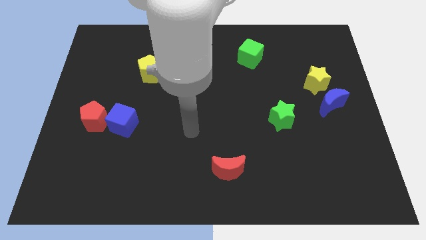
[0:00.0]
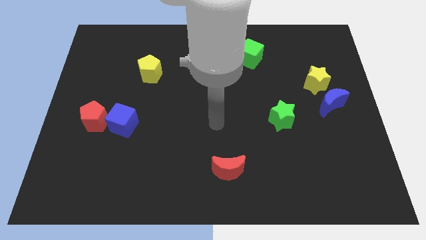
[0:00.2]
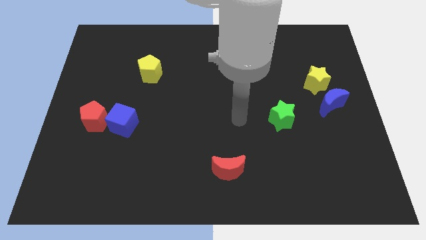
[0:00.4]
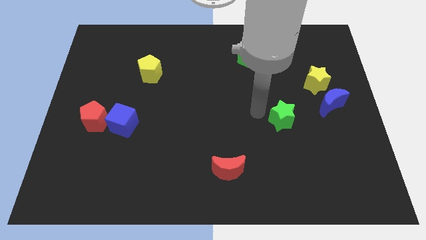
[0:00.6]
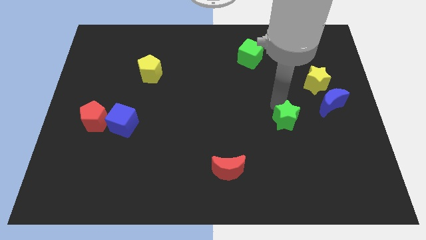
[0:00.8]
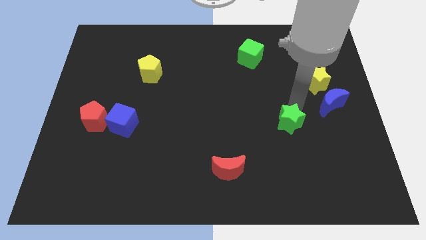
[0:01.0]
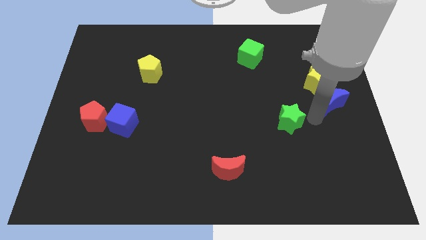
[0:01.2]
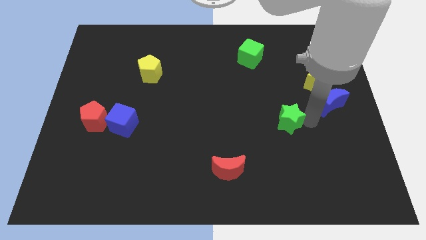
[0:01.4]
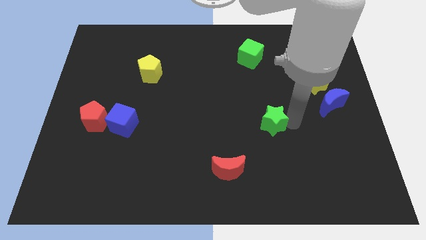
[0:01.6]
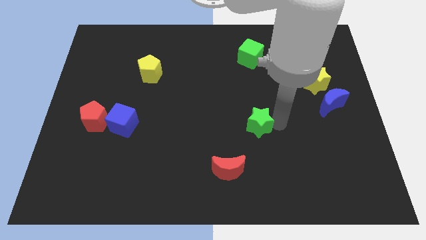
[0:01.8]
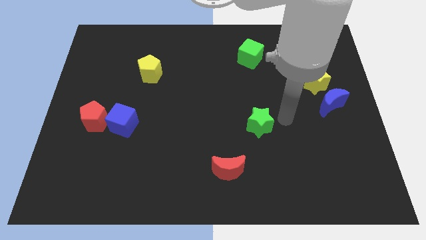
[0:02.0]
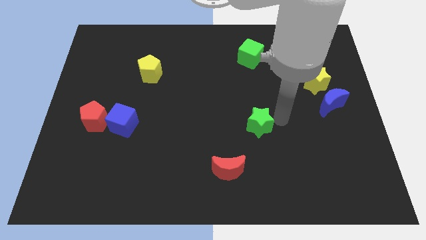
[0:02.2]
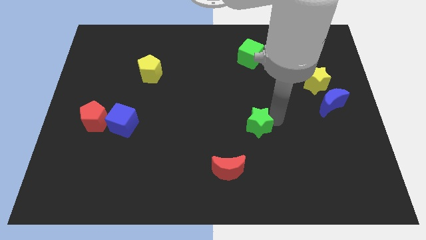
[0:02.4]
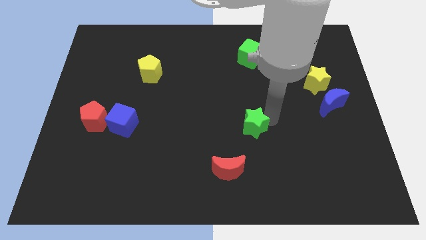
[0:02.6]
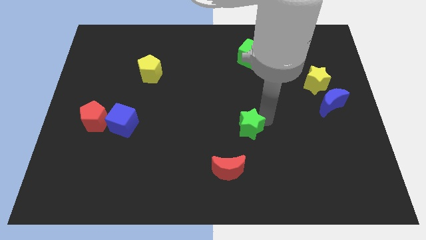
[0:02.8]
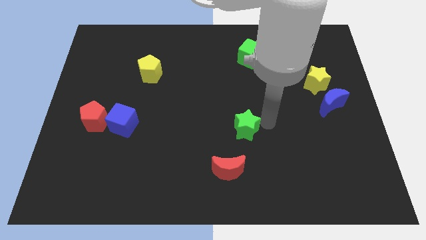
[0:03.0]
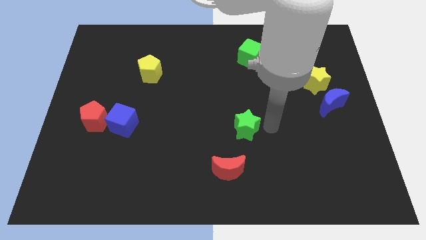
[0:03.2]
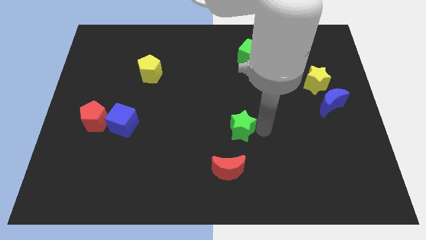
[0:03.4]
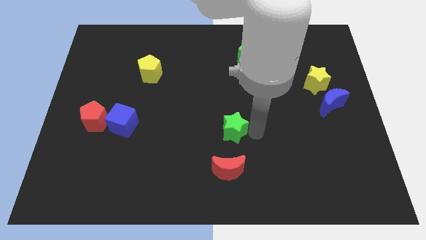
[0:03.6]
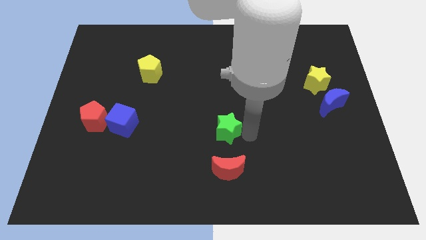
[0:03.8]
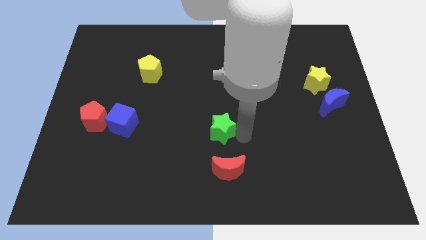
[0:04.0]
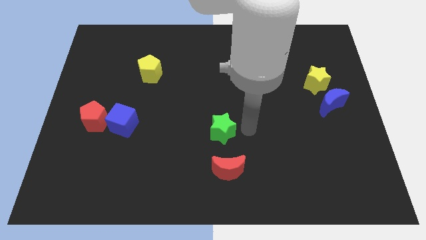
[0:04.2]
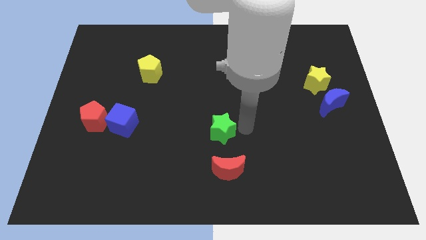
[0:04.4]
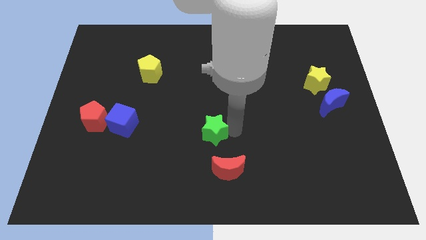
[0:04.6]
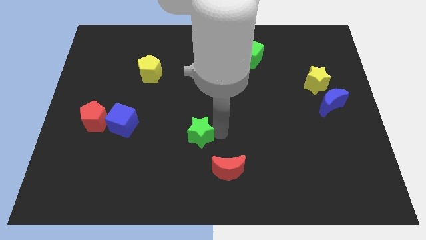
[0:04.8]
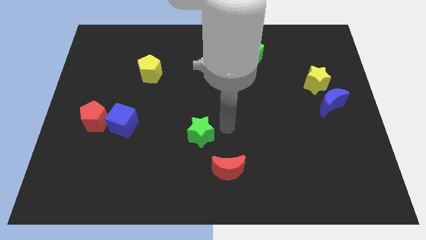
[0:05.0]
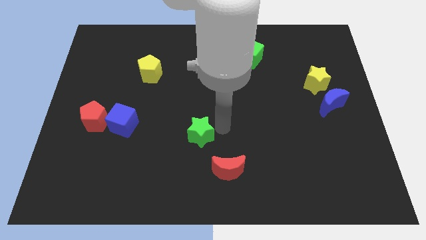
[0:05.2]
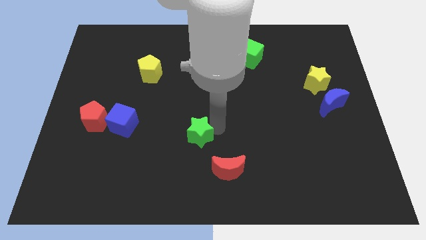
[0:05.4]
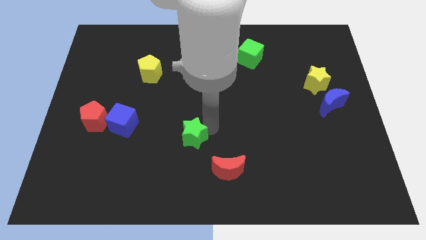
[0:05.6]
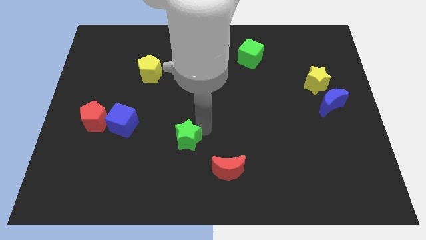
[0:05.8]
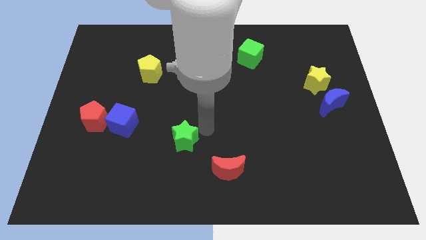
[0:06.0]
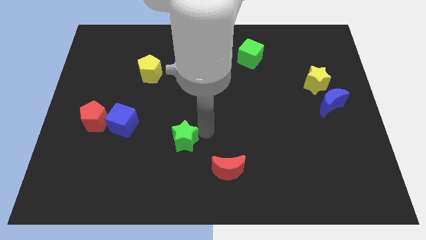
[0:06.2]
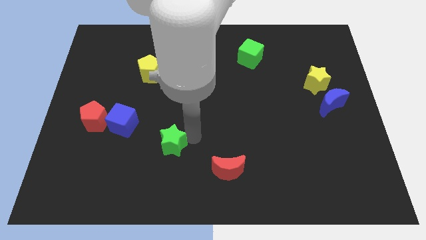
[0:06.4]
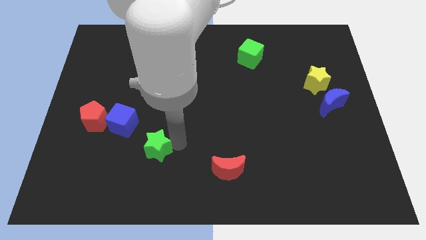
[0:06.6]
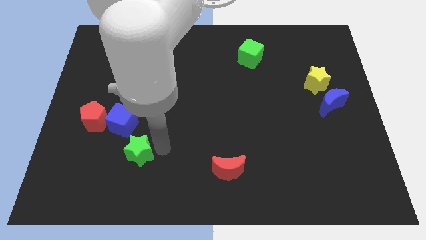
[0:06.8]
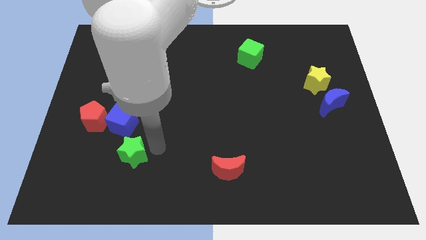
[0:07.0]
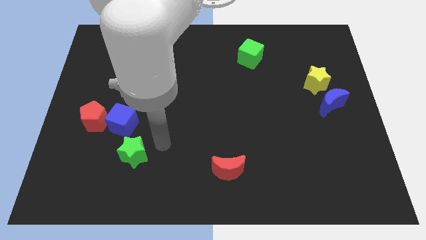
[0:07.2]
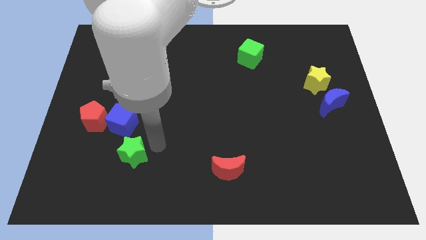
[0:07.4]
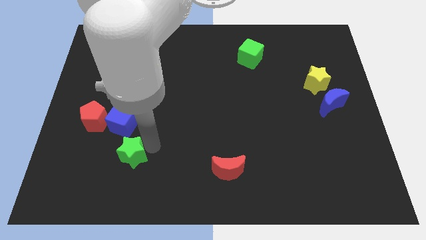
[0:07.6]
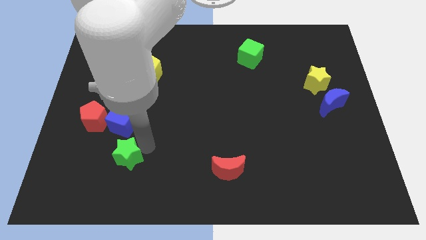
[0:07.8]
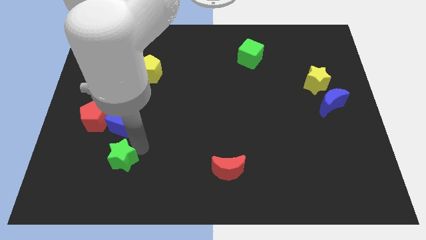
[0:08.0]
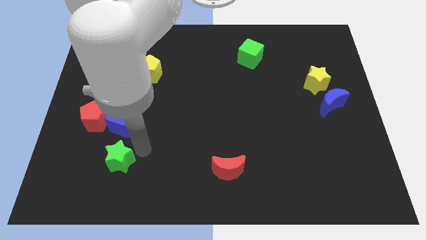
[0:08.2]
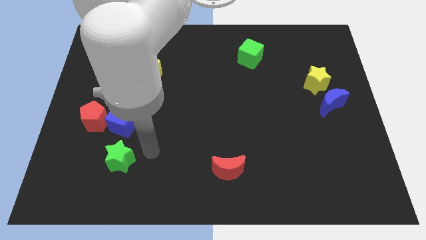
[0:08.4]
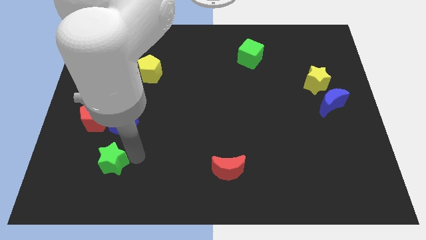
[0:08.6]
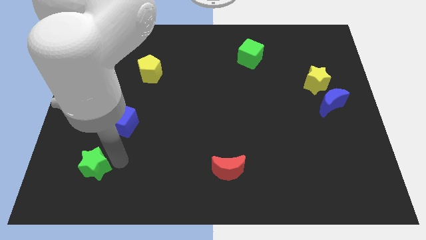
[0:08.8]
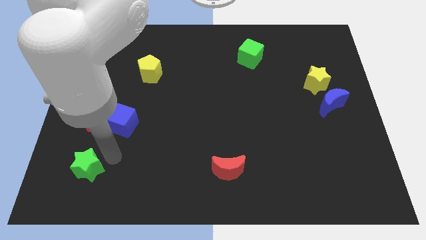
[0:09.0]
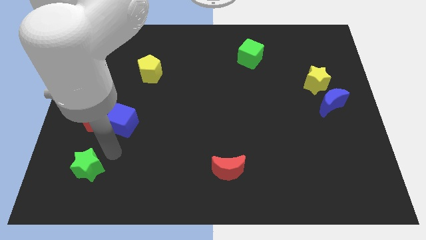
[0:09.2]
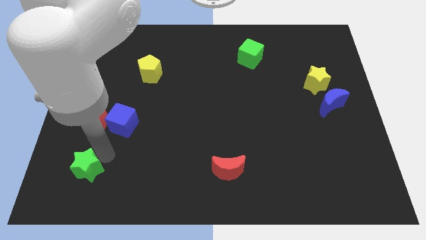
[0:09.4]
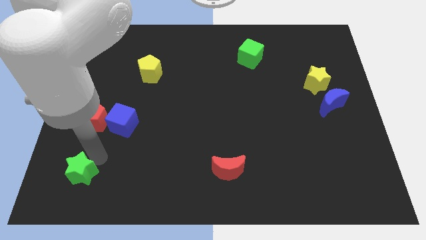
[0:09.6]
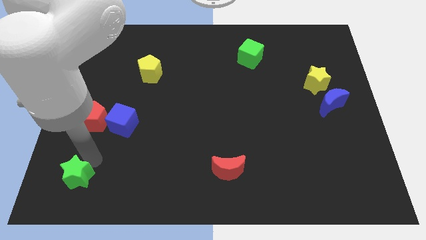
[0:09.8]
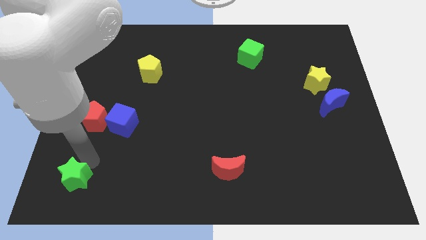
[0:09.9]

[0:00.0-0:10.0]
move the green star to the bottom left corner

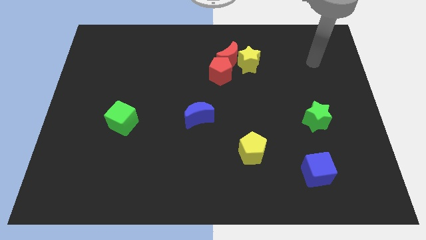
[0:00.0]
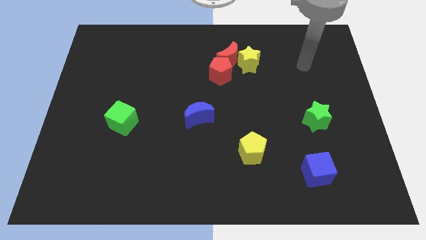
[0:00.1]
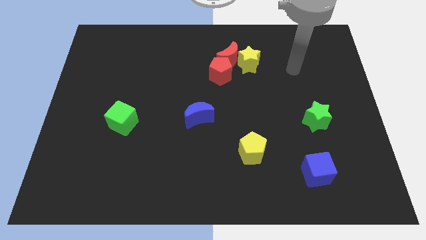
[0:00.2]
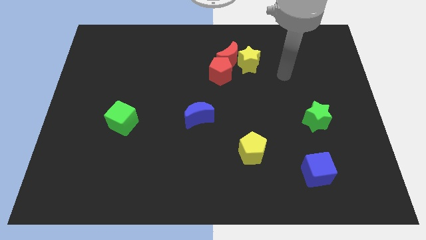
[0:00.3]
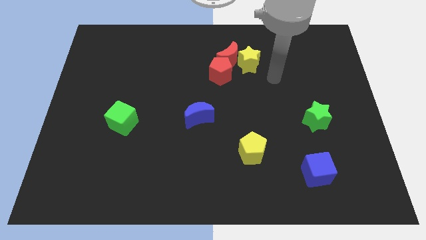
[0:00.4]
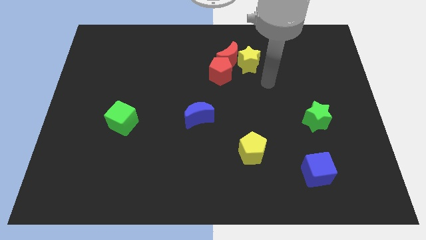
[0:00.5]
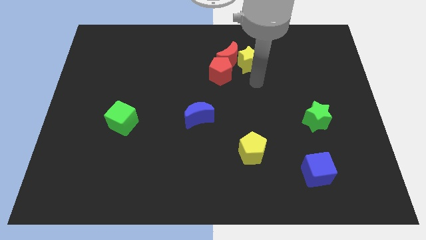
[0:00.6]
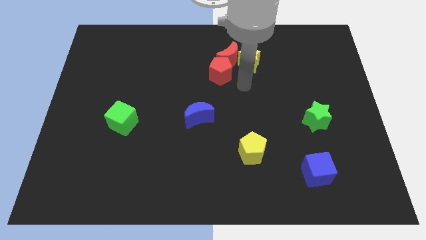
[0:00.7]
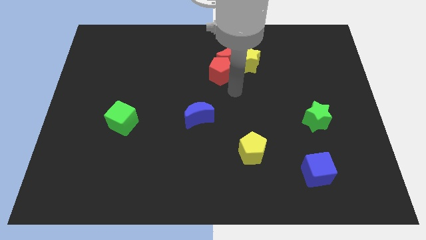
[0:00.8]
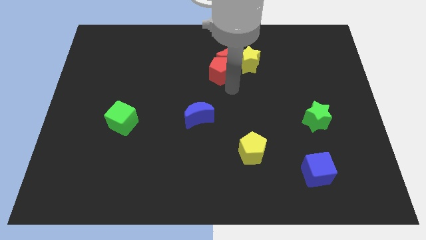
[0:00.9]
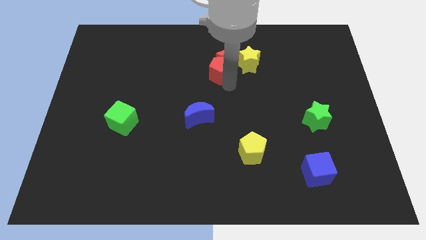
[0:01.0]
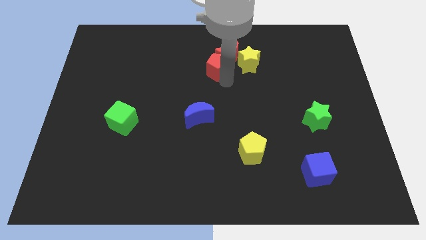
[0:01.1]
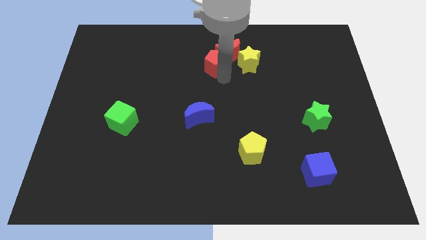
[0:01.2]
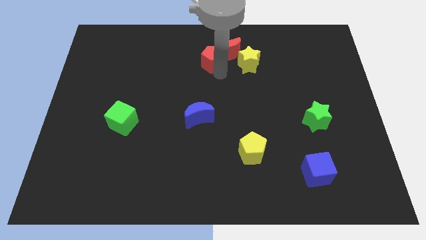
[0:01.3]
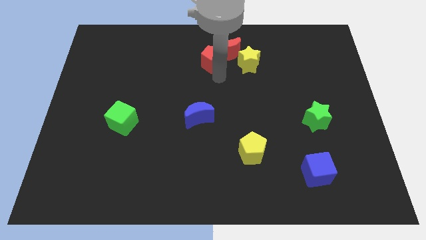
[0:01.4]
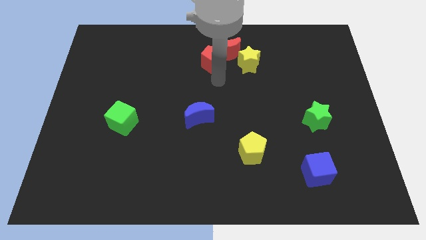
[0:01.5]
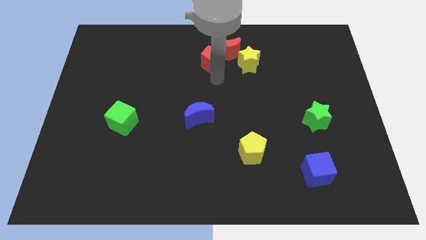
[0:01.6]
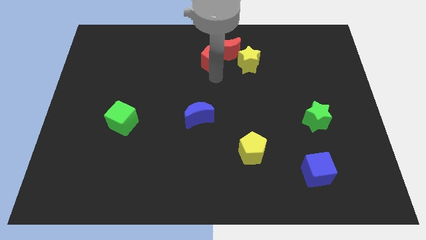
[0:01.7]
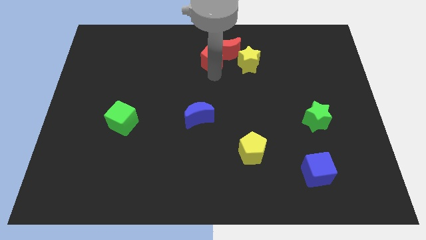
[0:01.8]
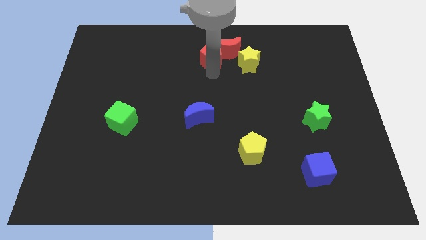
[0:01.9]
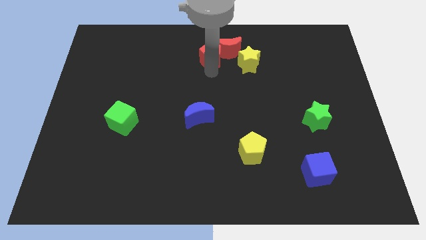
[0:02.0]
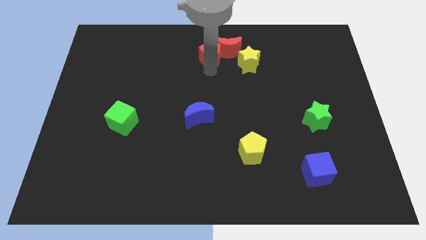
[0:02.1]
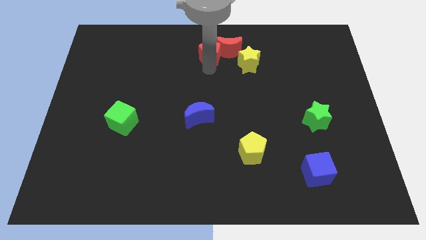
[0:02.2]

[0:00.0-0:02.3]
put the red pentagon to the towards your base
